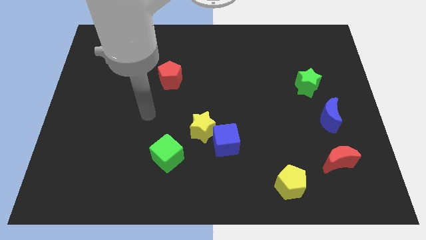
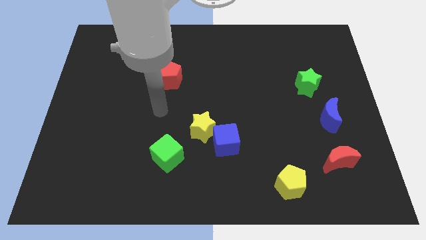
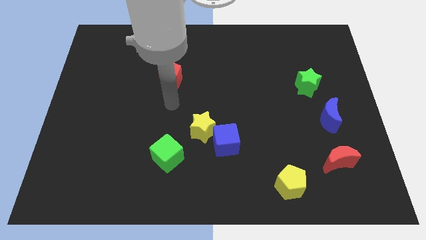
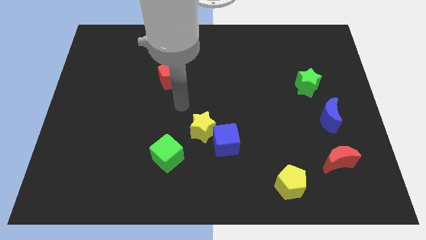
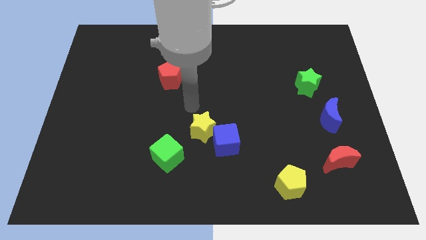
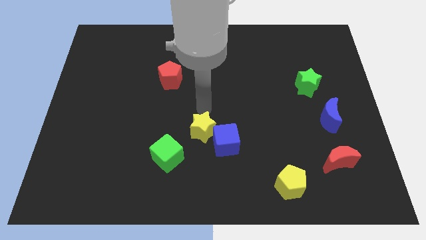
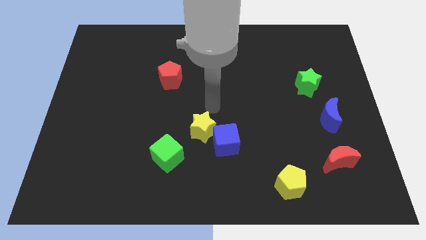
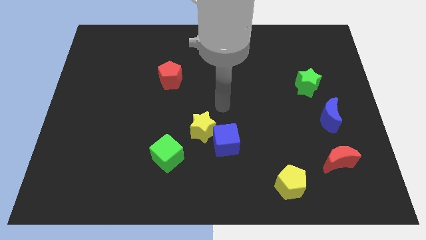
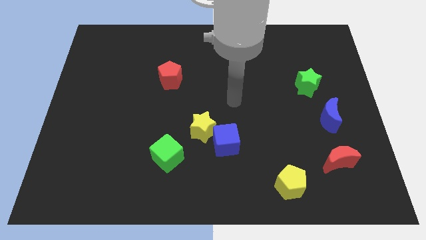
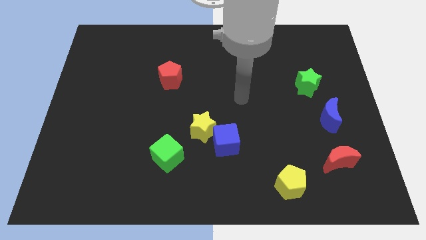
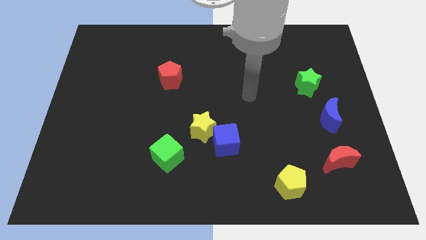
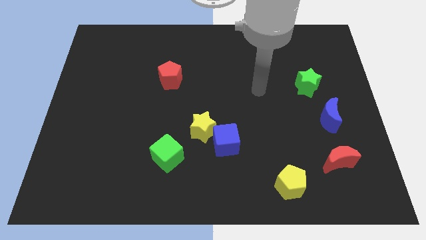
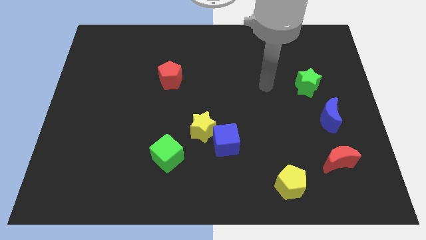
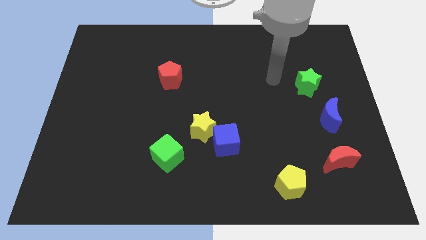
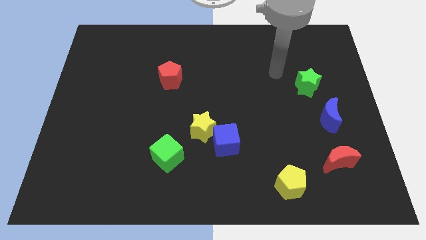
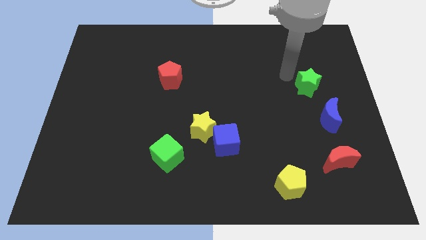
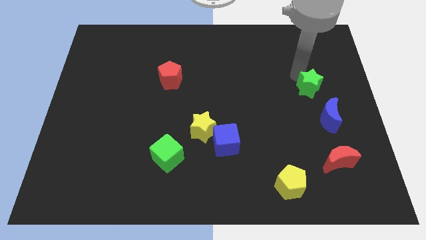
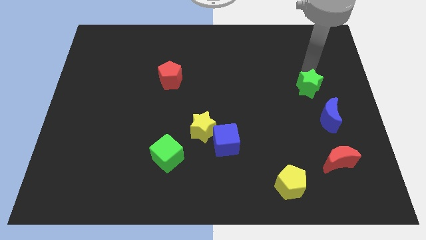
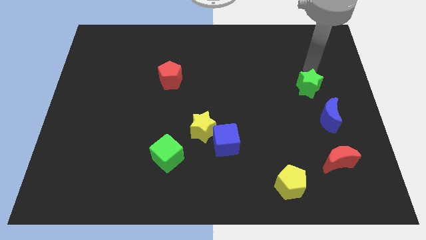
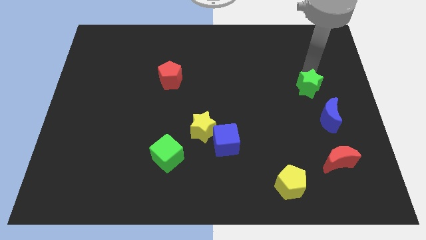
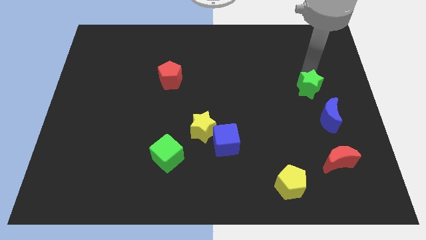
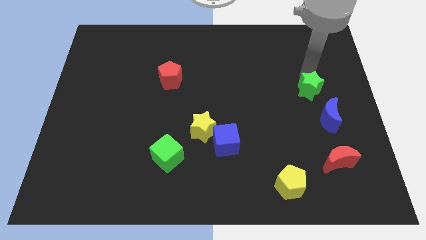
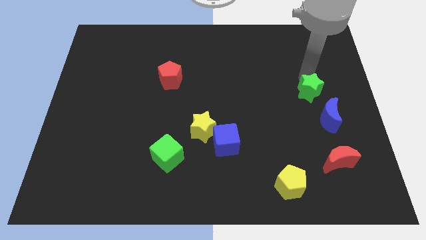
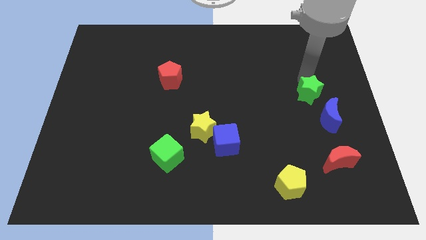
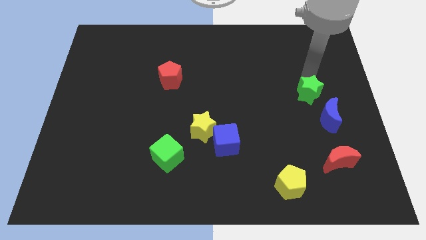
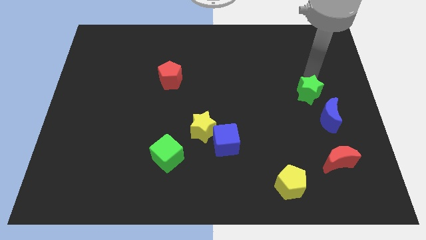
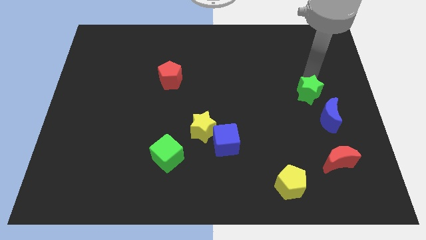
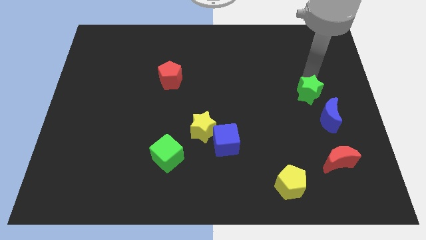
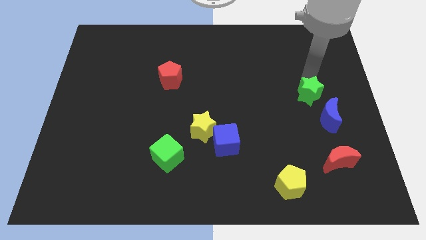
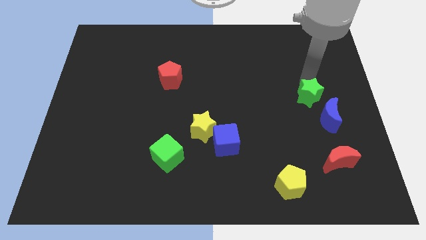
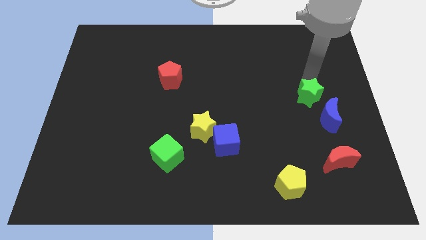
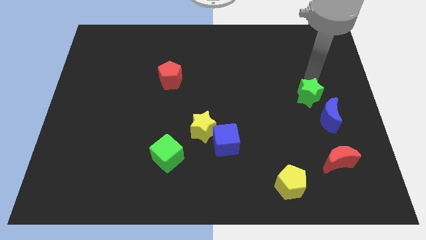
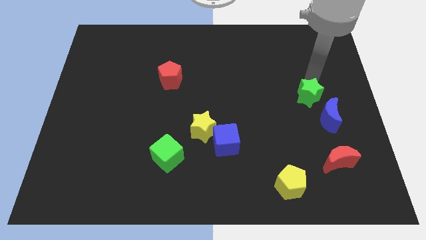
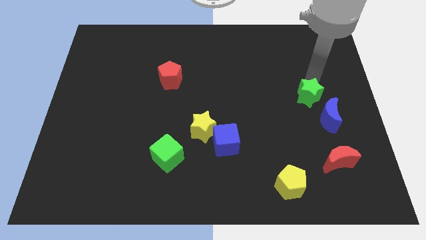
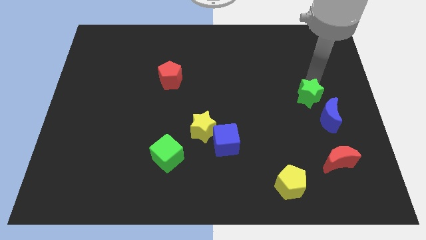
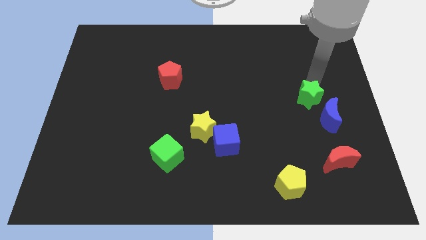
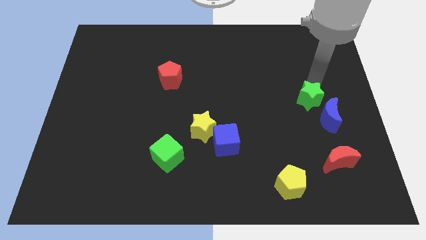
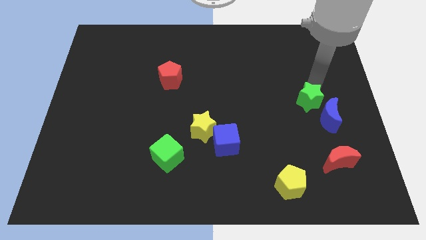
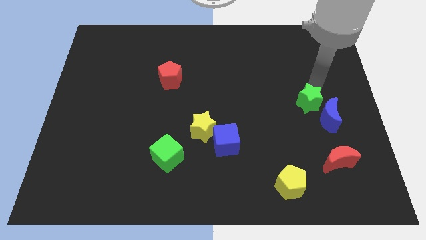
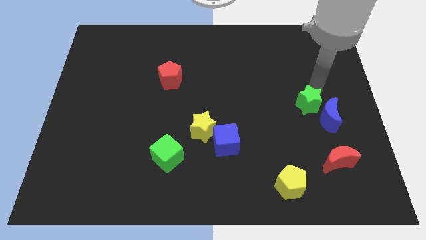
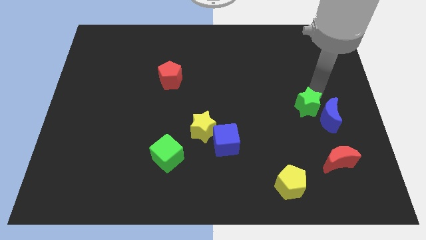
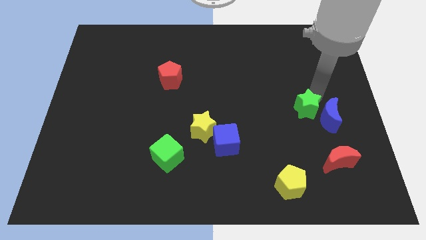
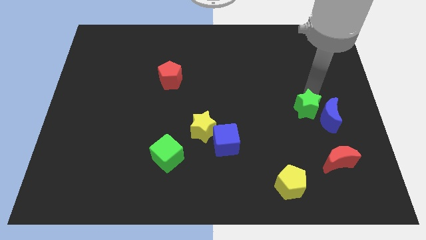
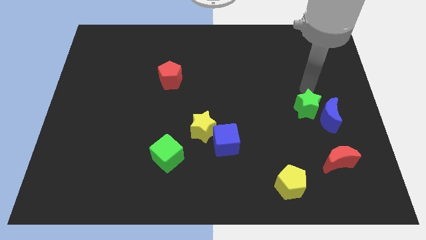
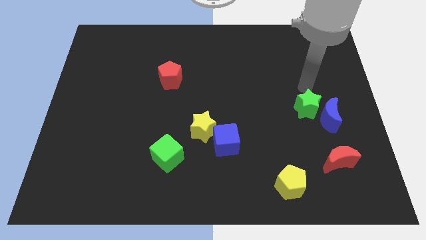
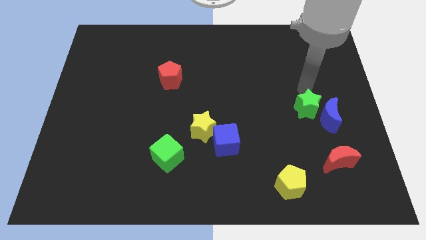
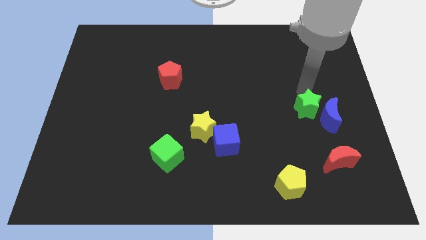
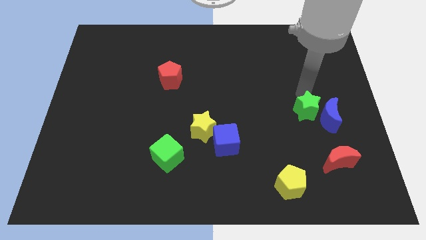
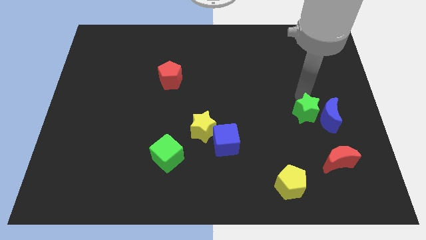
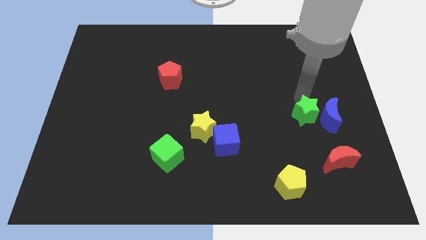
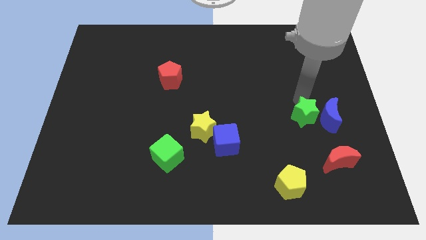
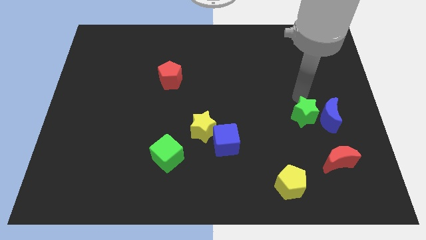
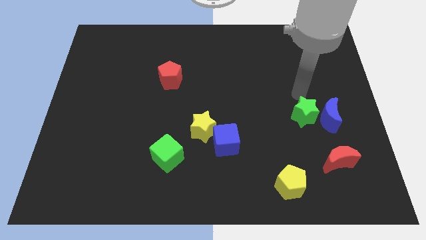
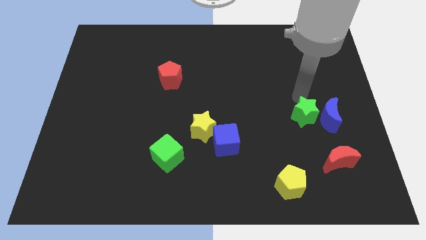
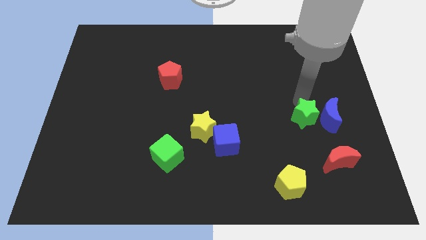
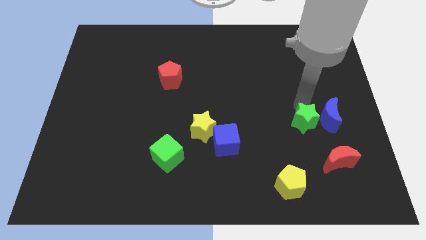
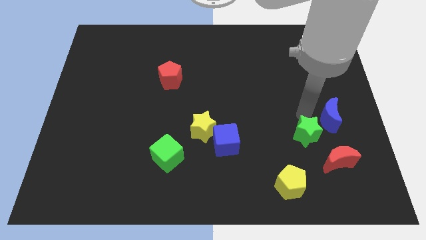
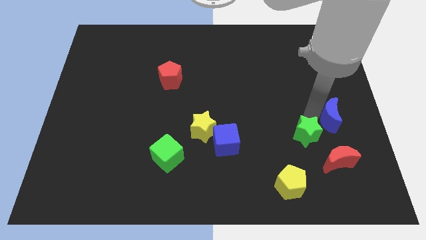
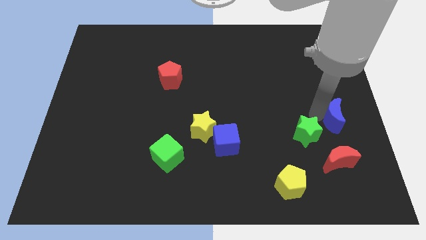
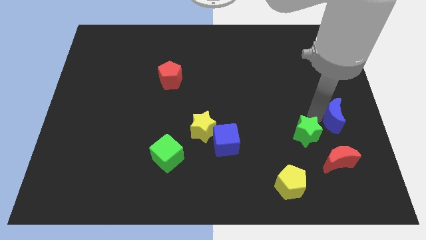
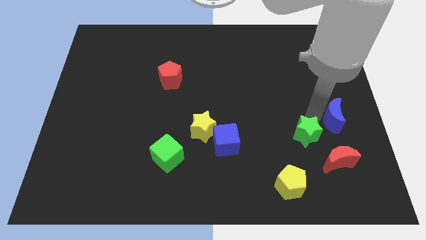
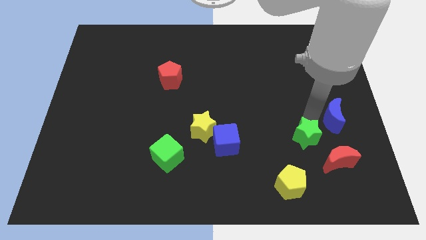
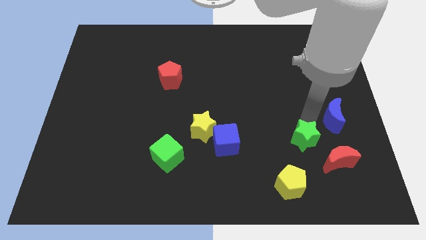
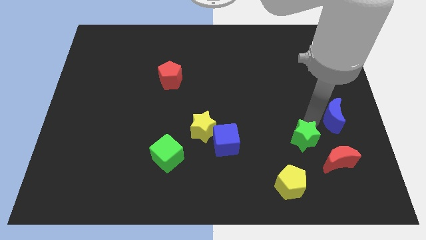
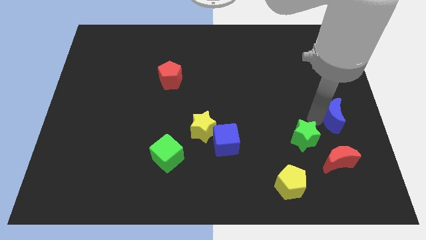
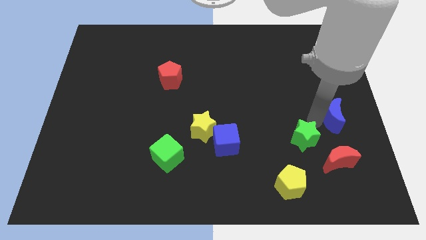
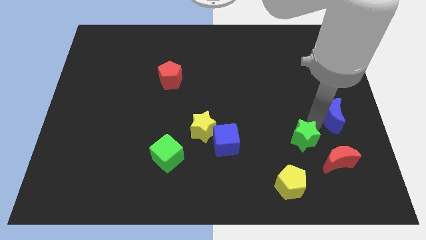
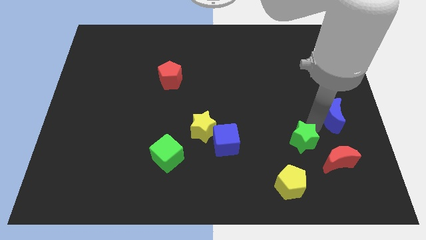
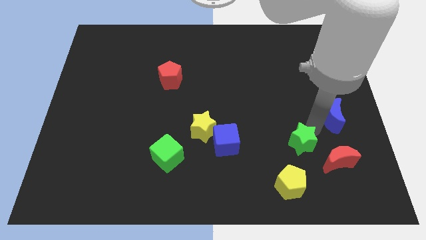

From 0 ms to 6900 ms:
move the green star just left of the red moon
